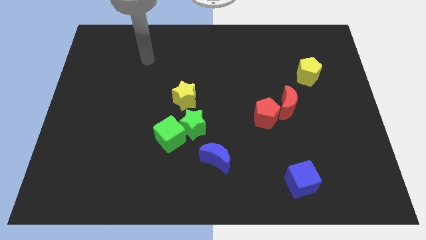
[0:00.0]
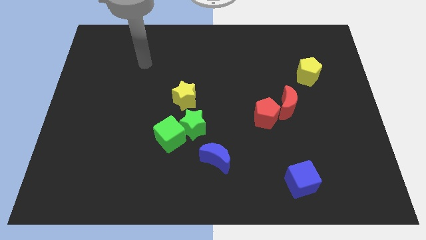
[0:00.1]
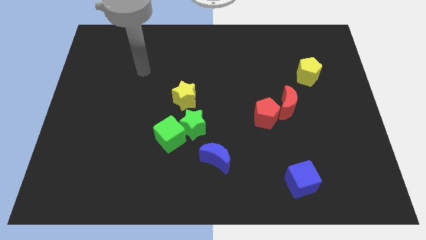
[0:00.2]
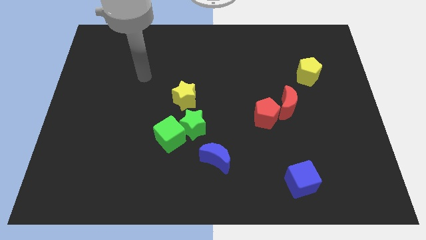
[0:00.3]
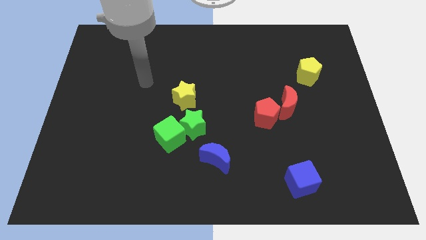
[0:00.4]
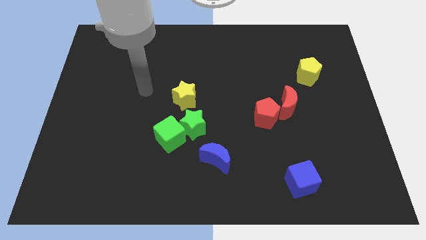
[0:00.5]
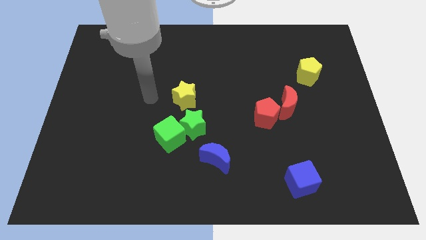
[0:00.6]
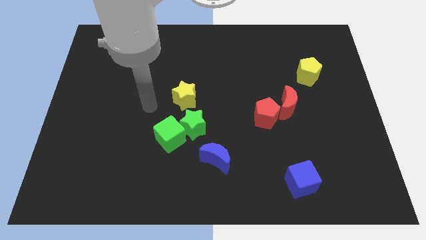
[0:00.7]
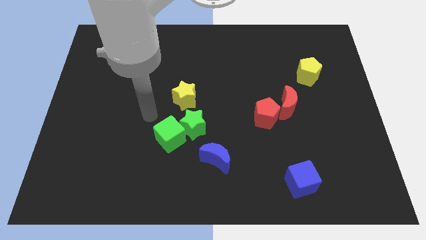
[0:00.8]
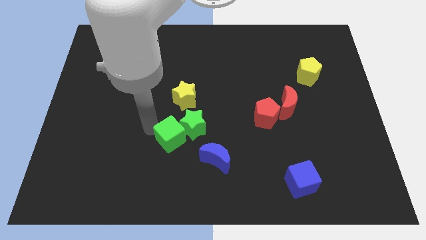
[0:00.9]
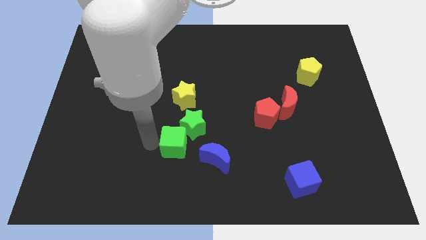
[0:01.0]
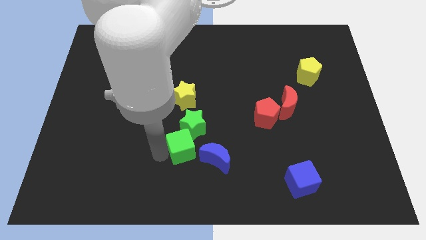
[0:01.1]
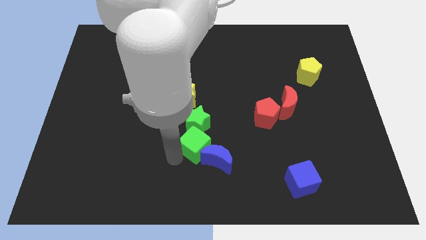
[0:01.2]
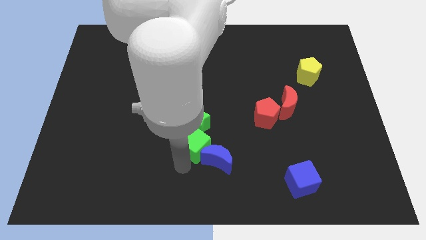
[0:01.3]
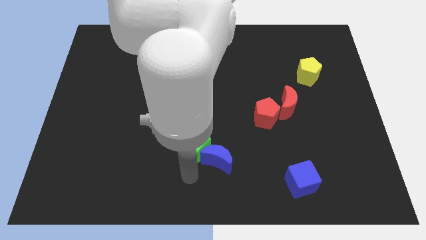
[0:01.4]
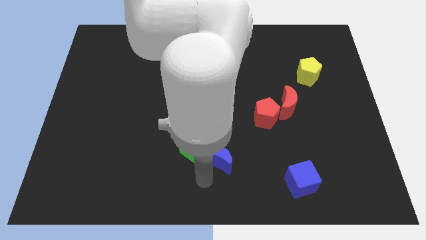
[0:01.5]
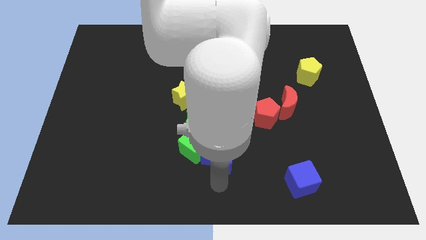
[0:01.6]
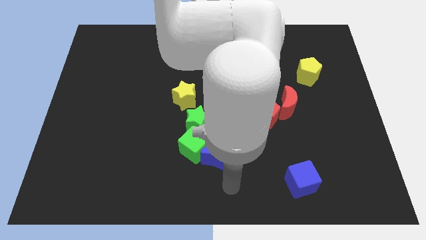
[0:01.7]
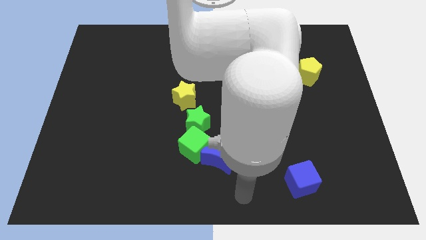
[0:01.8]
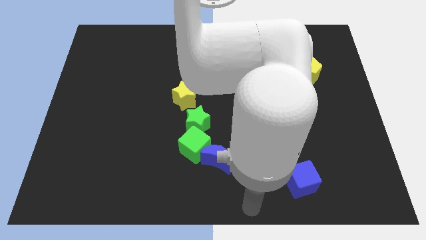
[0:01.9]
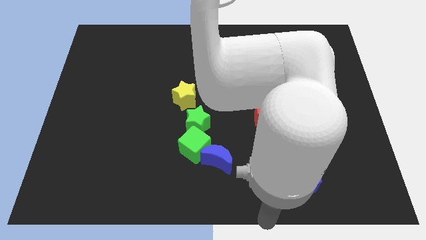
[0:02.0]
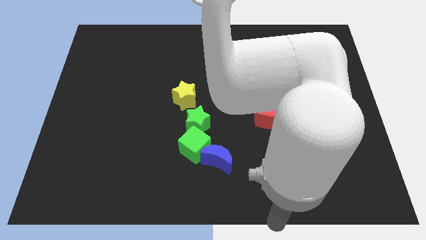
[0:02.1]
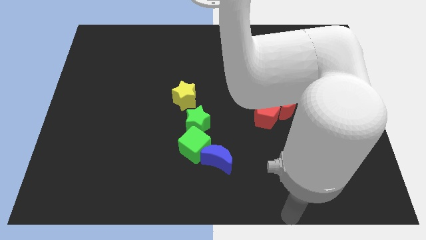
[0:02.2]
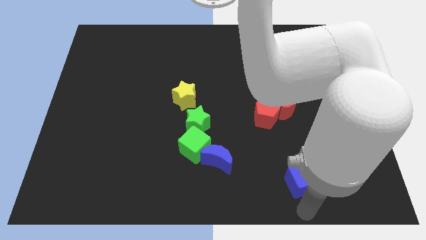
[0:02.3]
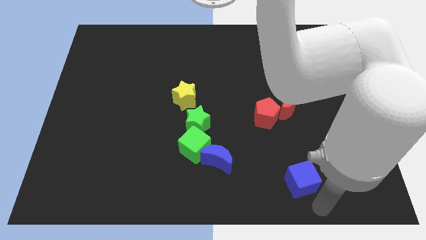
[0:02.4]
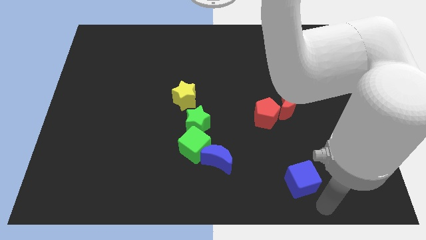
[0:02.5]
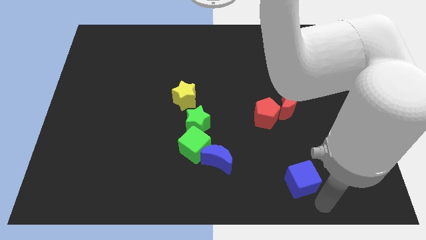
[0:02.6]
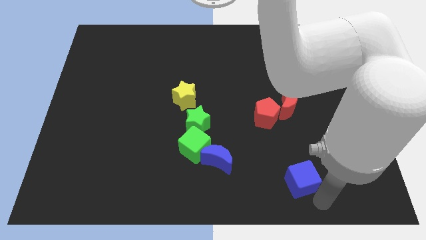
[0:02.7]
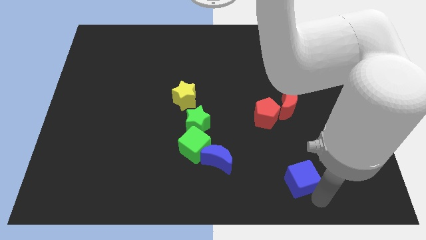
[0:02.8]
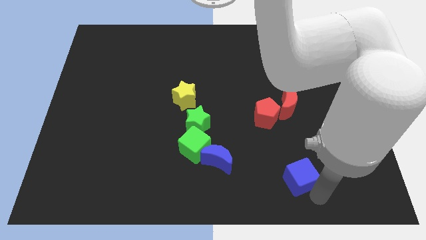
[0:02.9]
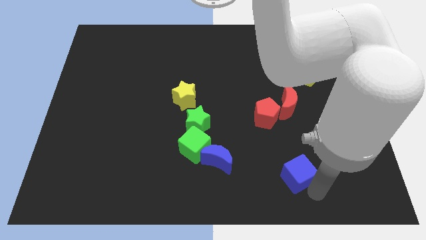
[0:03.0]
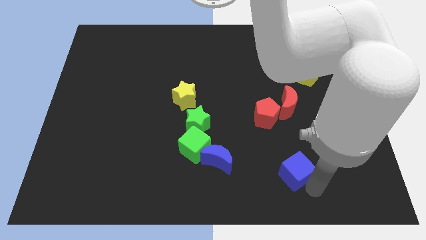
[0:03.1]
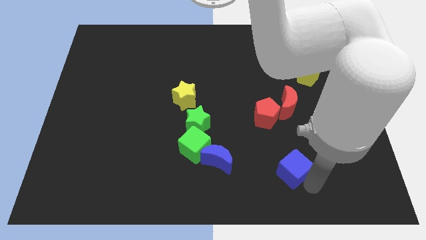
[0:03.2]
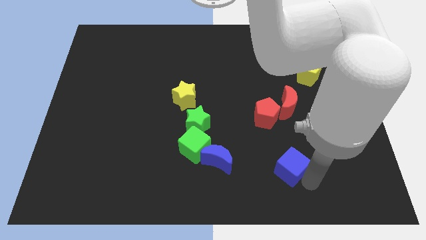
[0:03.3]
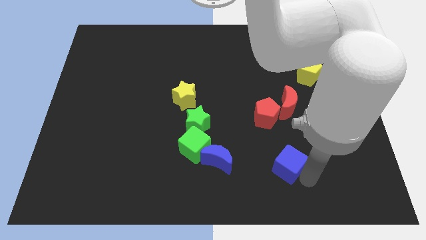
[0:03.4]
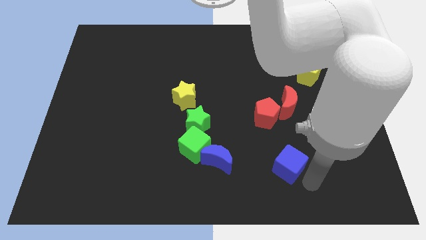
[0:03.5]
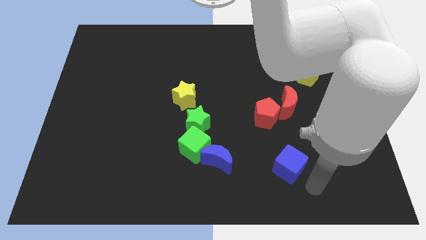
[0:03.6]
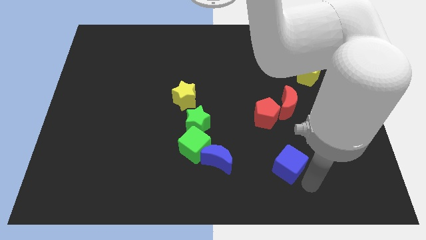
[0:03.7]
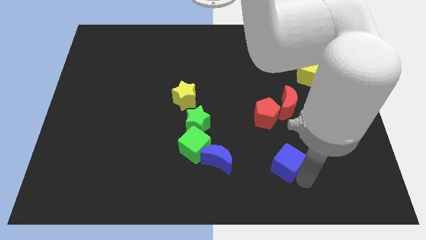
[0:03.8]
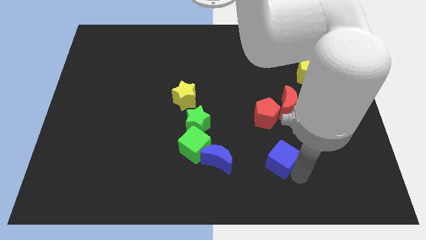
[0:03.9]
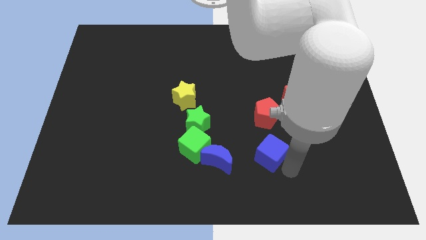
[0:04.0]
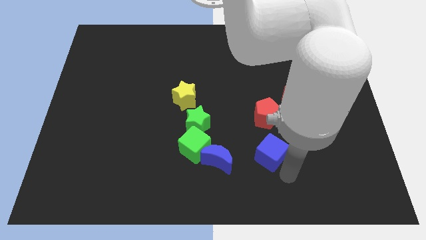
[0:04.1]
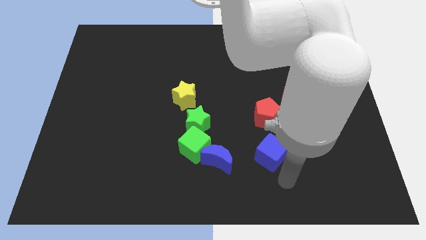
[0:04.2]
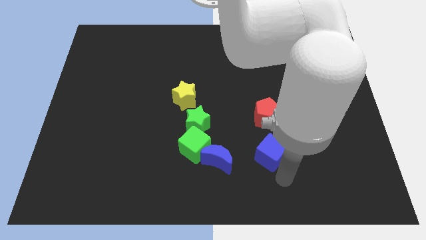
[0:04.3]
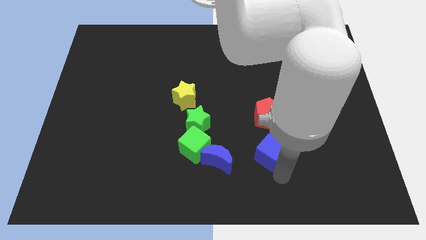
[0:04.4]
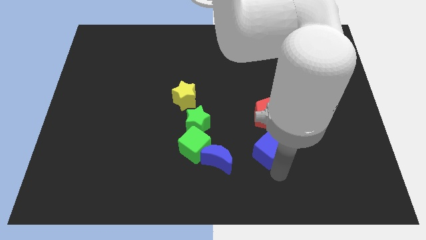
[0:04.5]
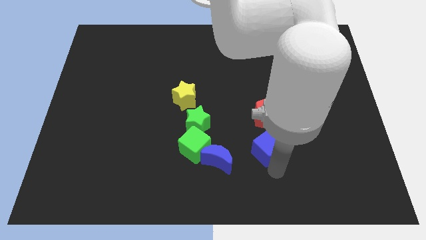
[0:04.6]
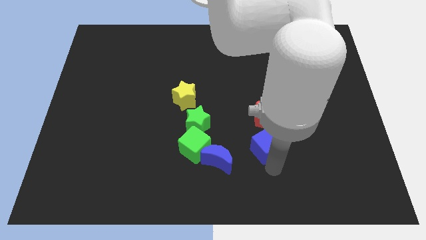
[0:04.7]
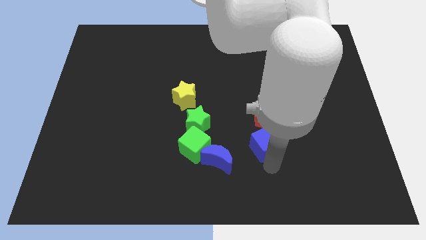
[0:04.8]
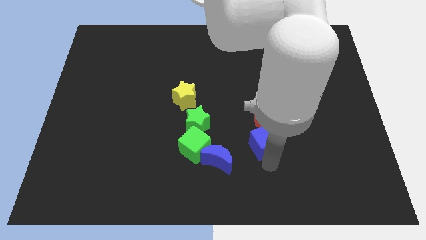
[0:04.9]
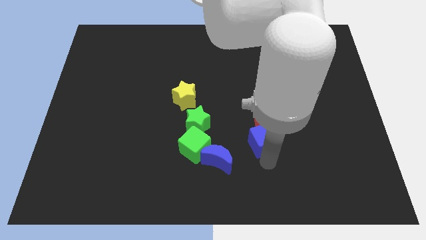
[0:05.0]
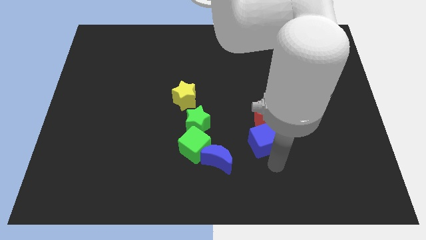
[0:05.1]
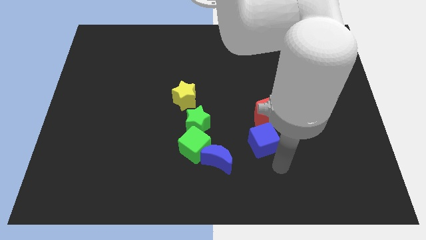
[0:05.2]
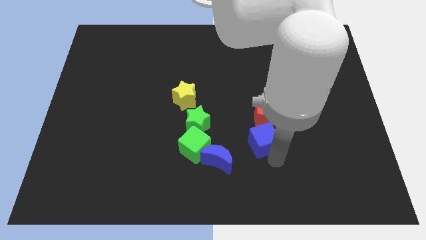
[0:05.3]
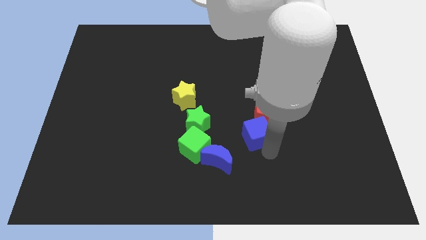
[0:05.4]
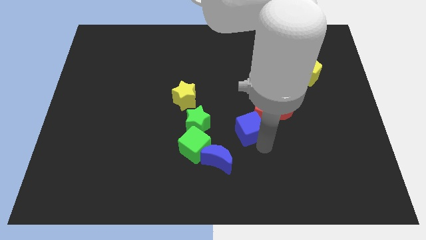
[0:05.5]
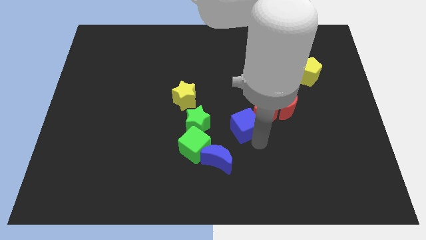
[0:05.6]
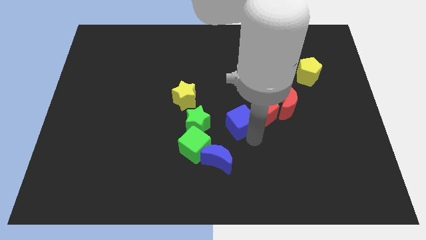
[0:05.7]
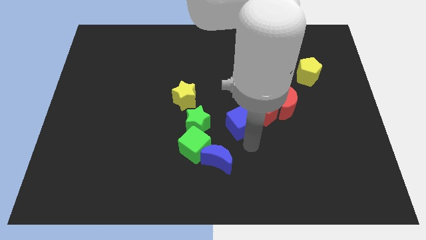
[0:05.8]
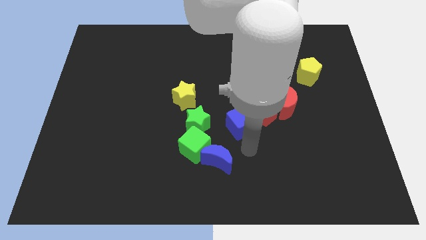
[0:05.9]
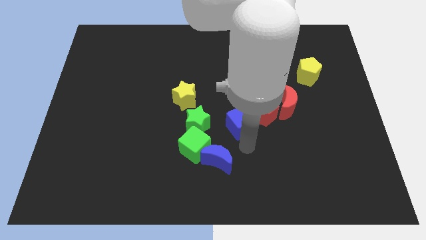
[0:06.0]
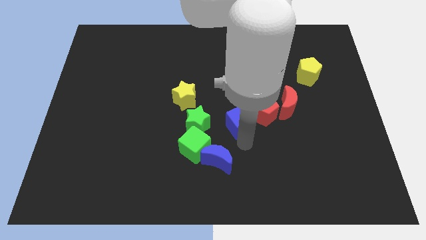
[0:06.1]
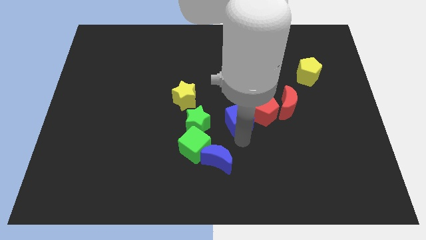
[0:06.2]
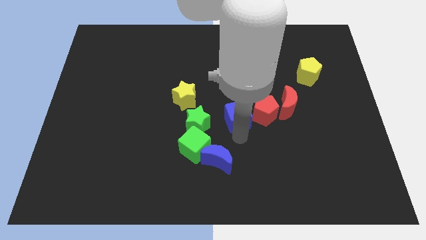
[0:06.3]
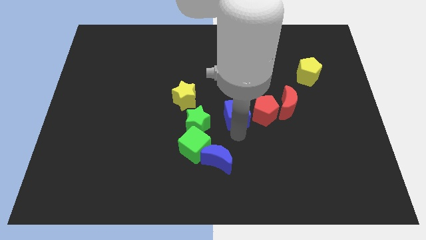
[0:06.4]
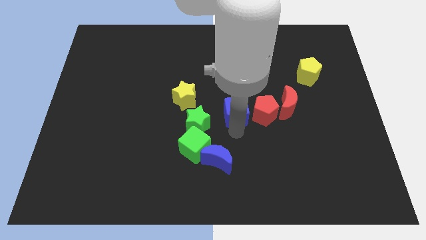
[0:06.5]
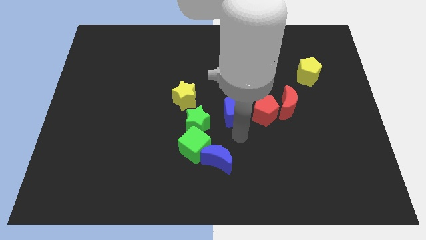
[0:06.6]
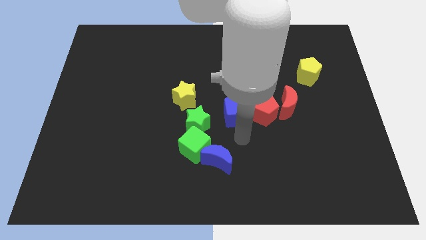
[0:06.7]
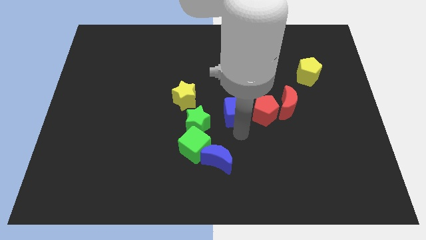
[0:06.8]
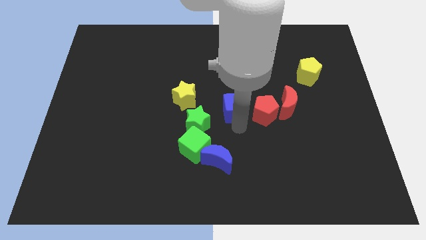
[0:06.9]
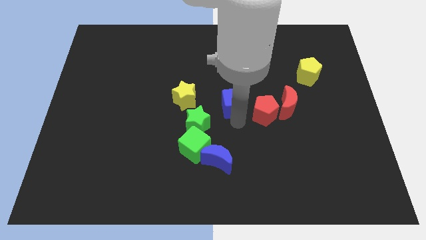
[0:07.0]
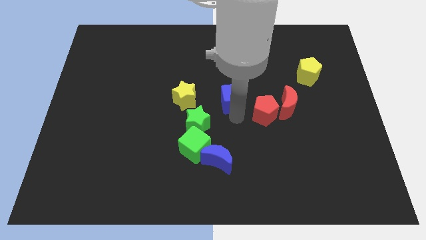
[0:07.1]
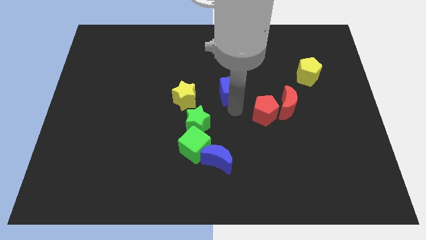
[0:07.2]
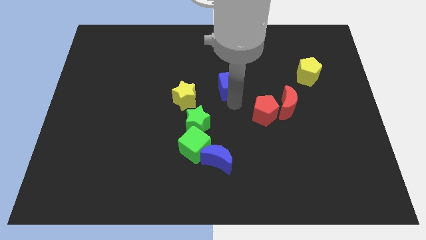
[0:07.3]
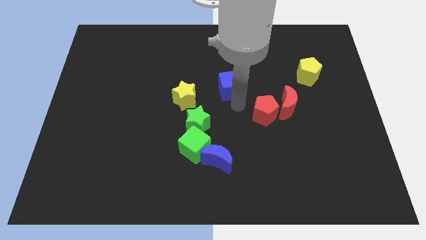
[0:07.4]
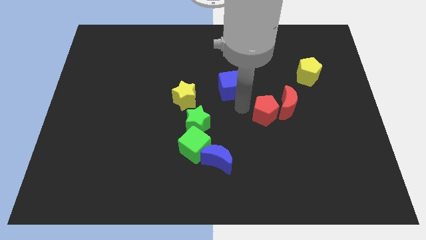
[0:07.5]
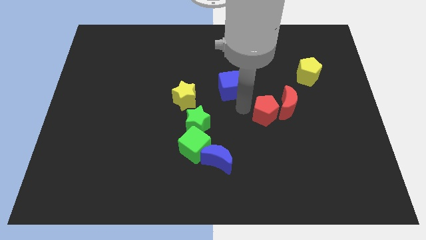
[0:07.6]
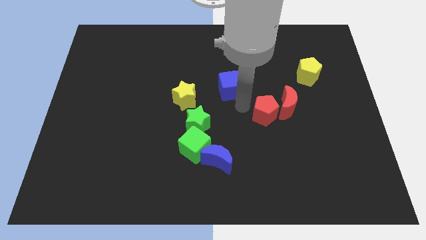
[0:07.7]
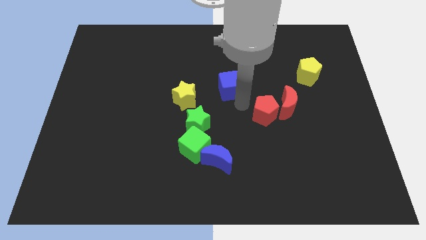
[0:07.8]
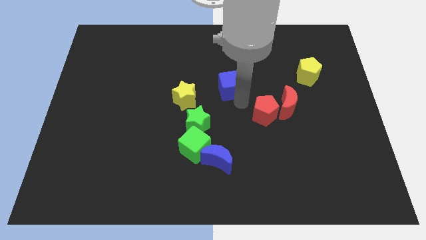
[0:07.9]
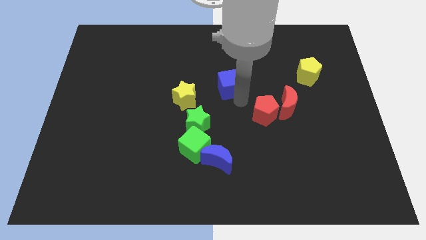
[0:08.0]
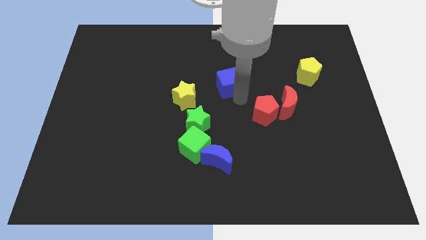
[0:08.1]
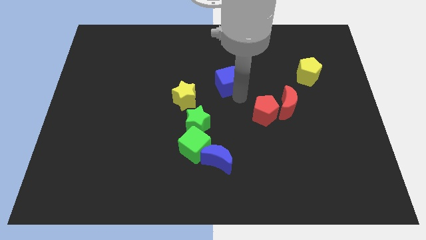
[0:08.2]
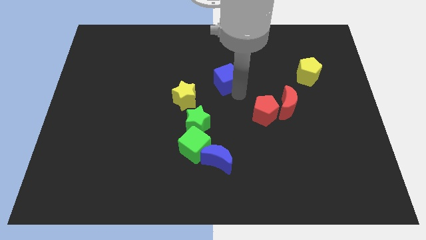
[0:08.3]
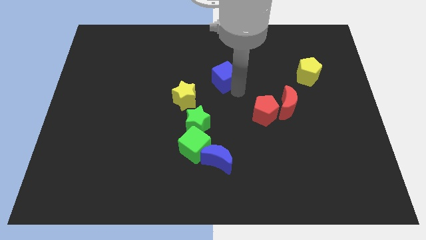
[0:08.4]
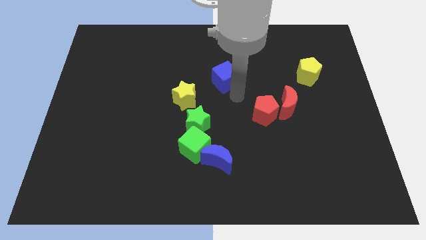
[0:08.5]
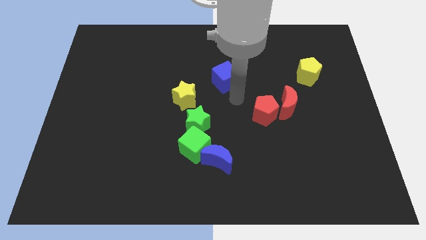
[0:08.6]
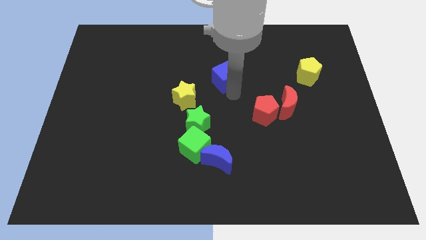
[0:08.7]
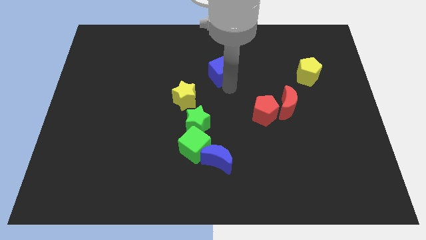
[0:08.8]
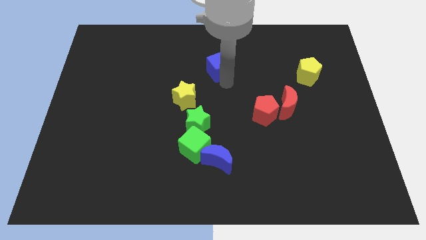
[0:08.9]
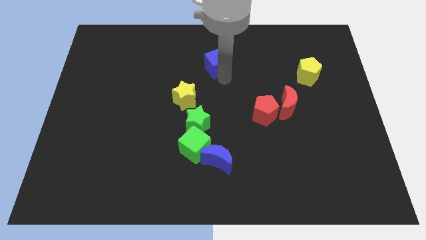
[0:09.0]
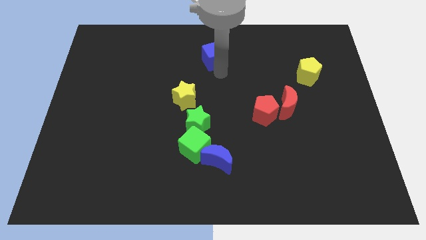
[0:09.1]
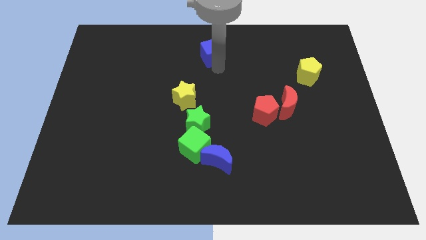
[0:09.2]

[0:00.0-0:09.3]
move the blue cube to the towards your base
